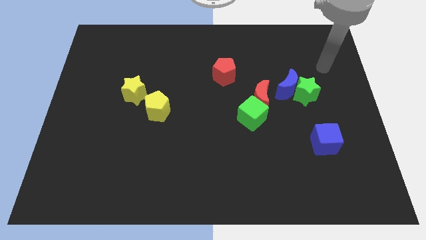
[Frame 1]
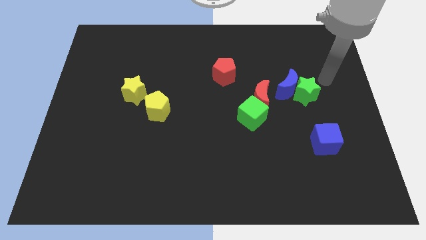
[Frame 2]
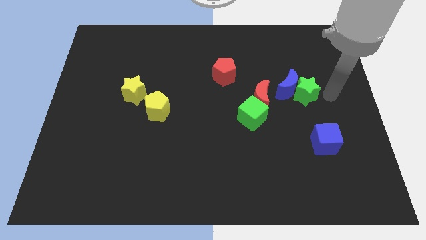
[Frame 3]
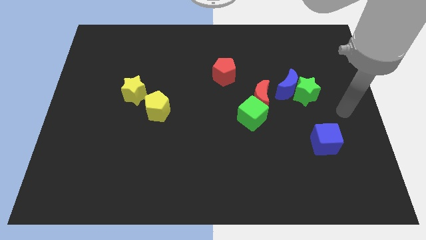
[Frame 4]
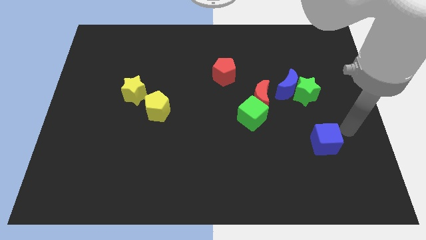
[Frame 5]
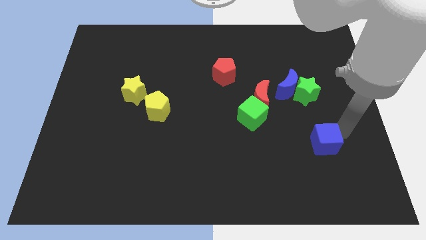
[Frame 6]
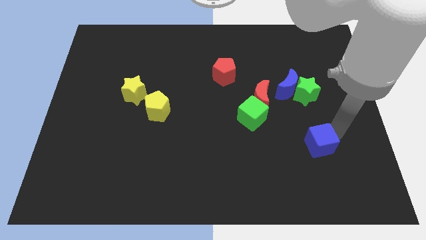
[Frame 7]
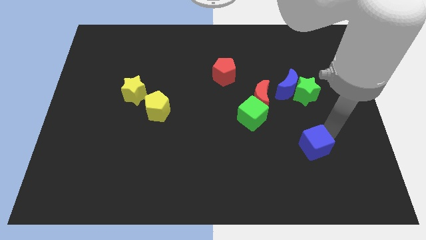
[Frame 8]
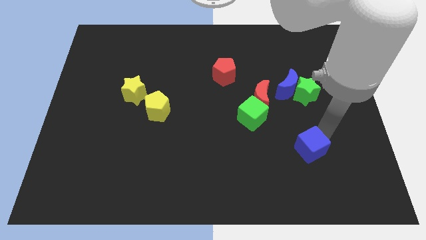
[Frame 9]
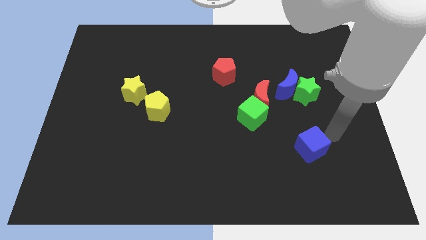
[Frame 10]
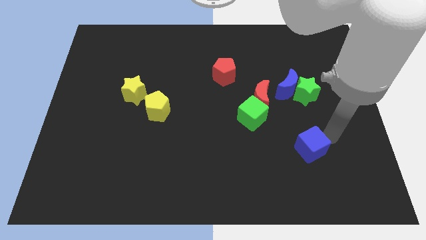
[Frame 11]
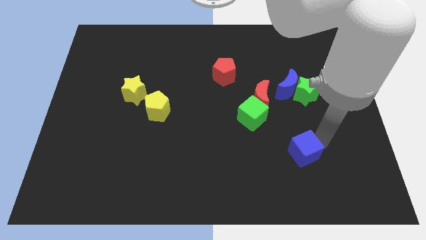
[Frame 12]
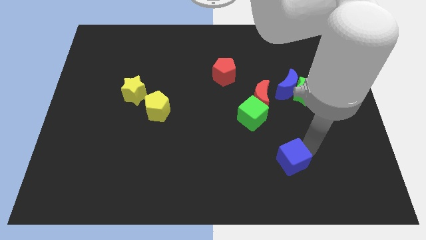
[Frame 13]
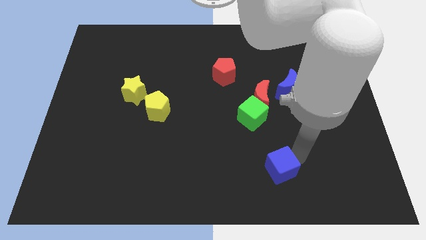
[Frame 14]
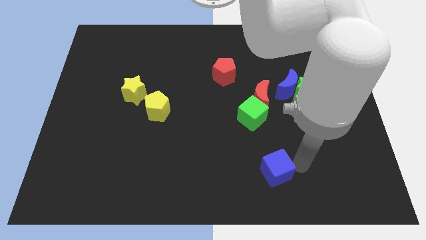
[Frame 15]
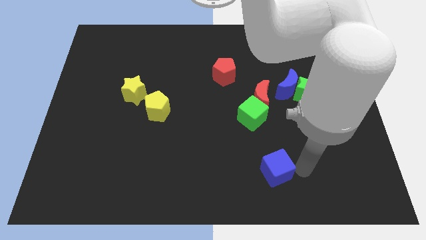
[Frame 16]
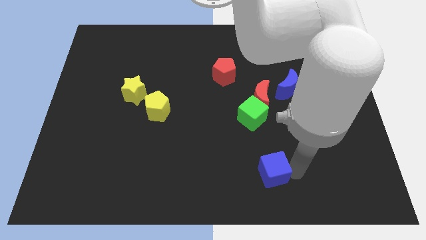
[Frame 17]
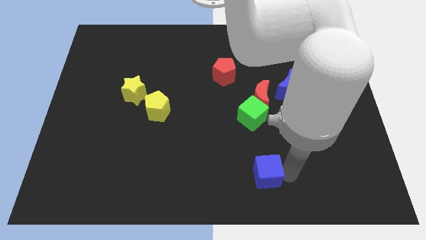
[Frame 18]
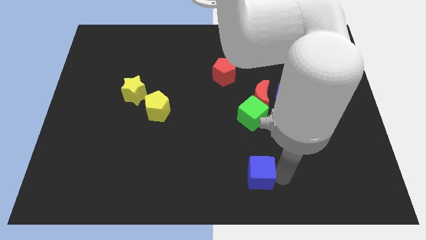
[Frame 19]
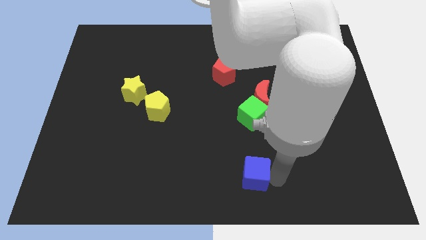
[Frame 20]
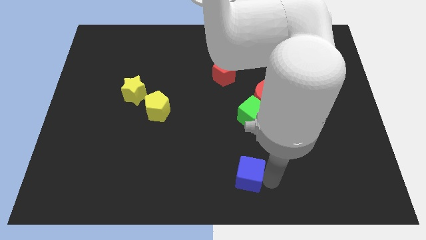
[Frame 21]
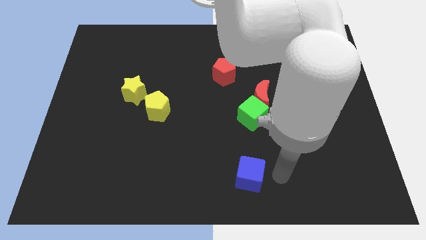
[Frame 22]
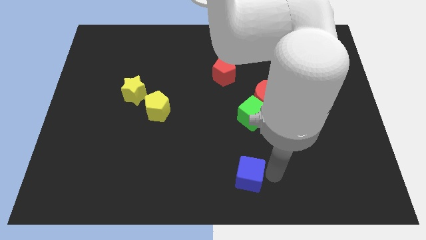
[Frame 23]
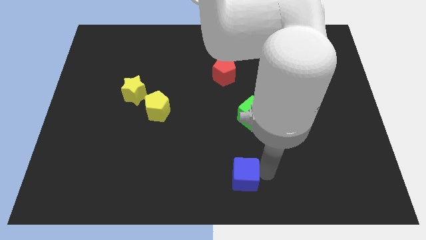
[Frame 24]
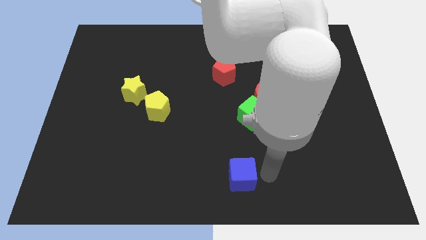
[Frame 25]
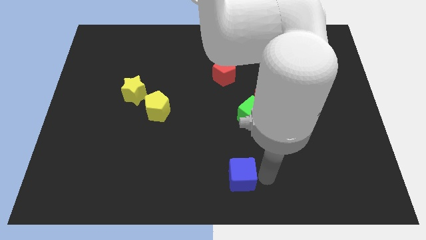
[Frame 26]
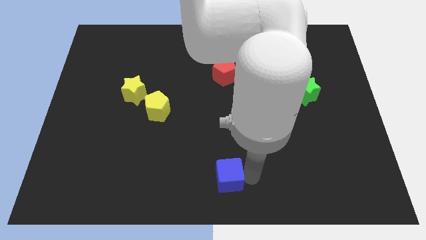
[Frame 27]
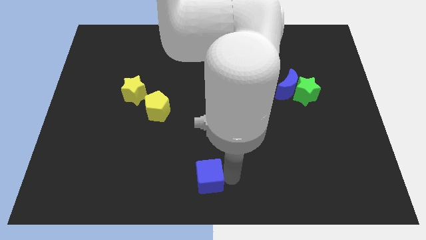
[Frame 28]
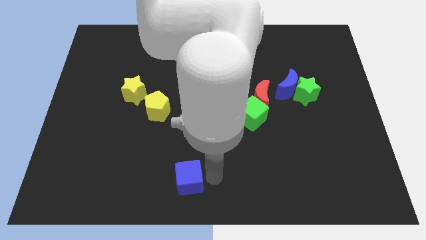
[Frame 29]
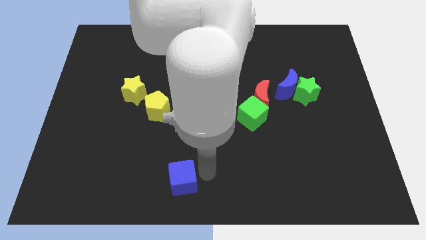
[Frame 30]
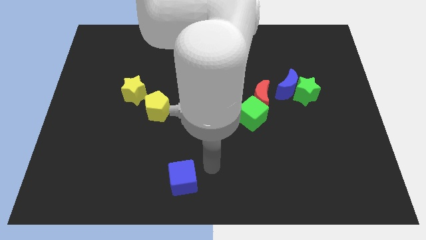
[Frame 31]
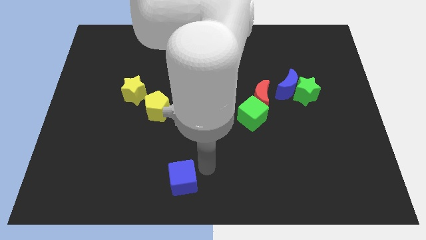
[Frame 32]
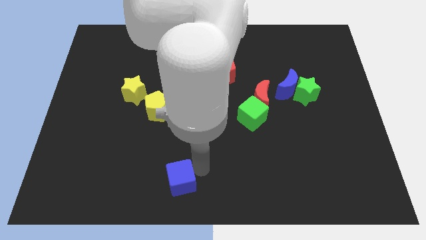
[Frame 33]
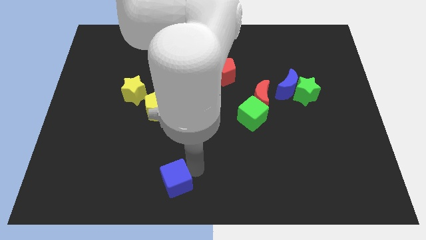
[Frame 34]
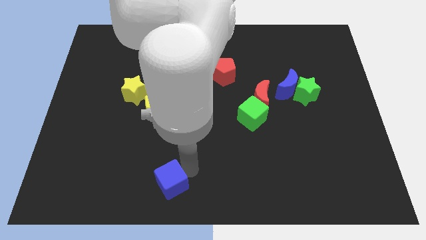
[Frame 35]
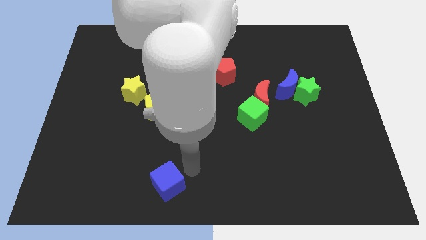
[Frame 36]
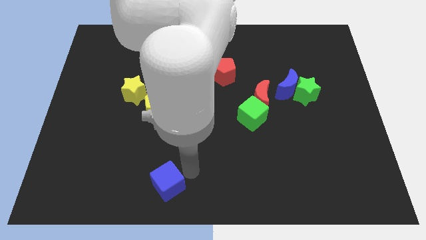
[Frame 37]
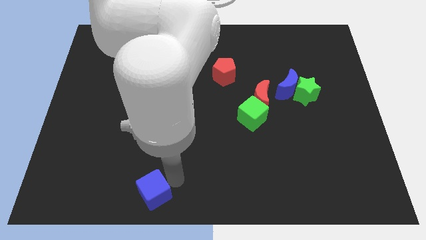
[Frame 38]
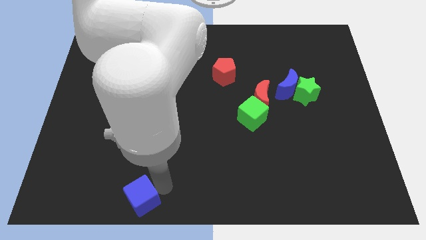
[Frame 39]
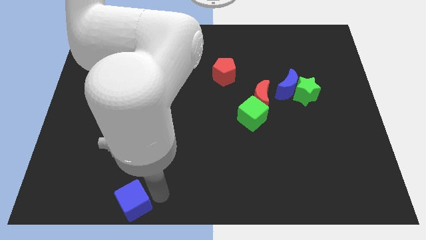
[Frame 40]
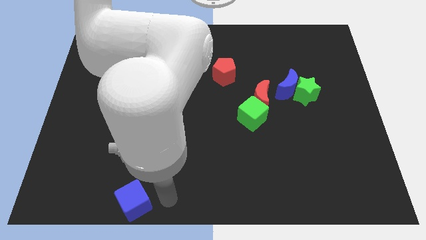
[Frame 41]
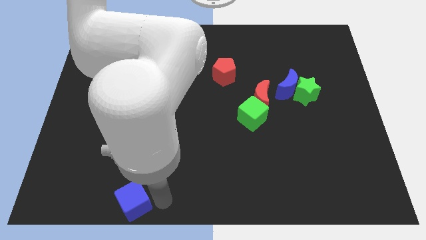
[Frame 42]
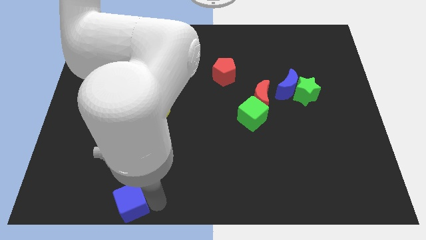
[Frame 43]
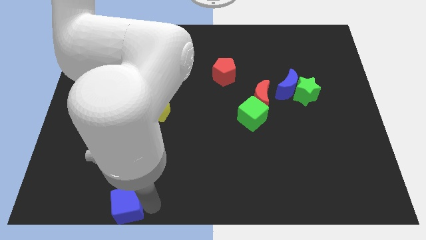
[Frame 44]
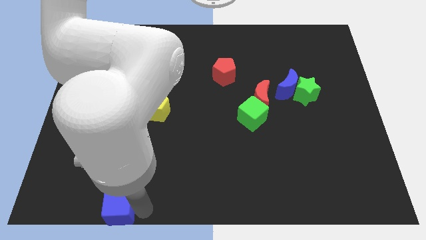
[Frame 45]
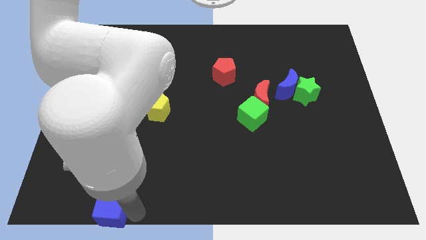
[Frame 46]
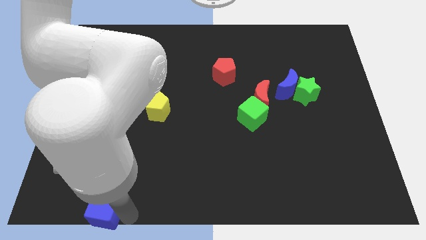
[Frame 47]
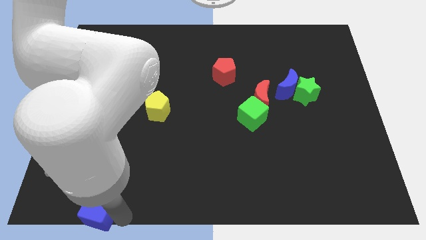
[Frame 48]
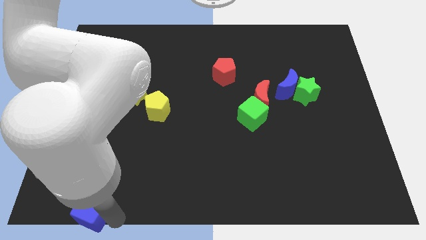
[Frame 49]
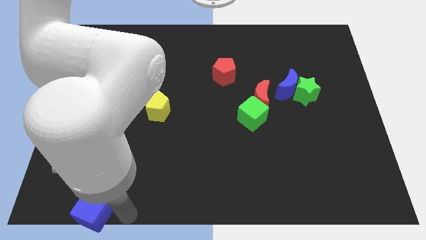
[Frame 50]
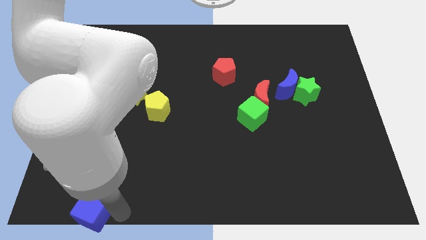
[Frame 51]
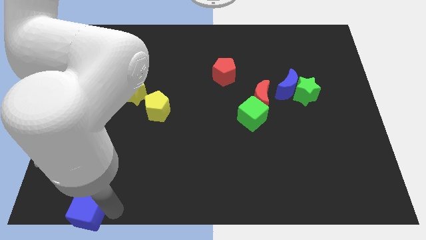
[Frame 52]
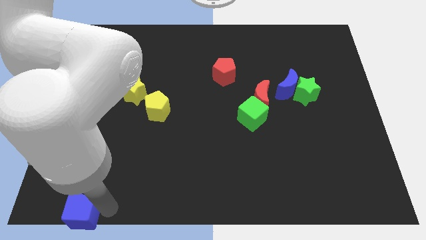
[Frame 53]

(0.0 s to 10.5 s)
slide the blue cube to the bottom left of the board
